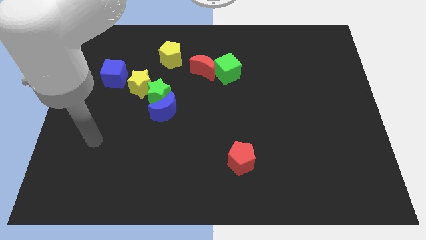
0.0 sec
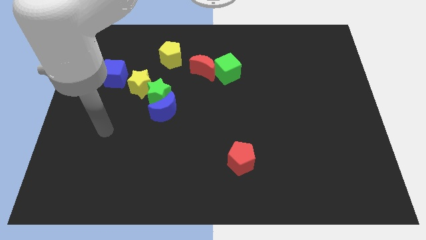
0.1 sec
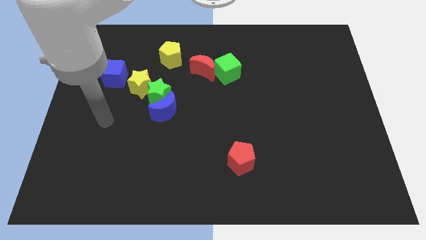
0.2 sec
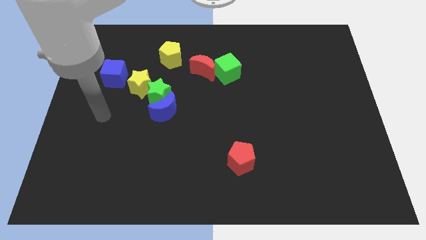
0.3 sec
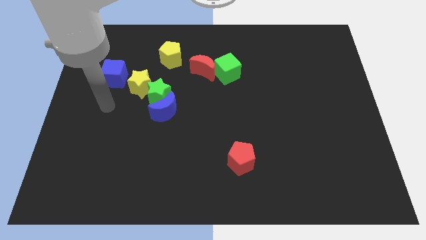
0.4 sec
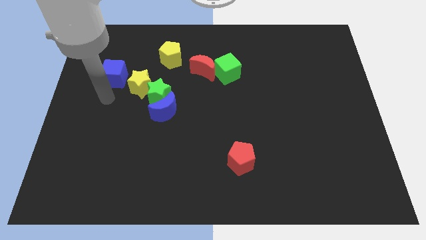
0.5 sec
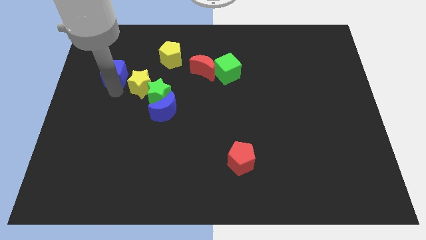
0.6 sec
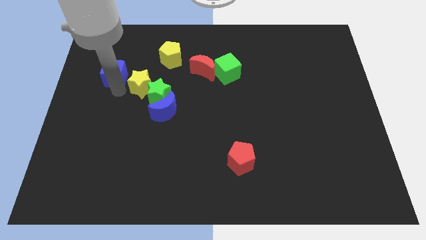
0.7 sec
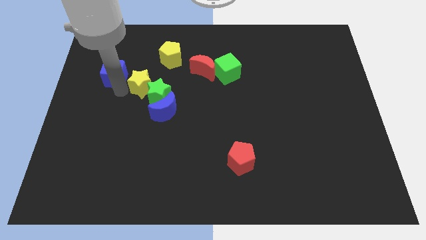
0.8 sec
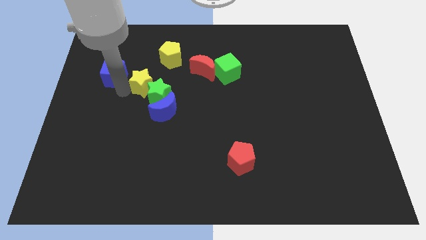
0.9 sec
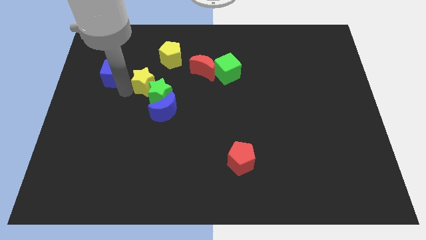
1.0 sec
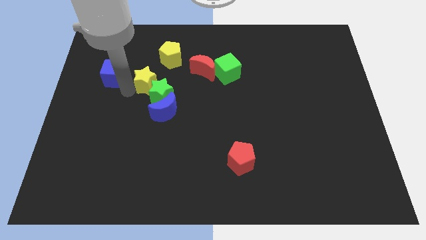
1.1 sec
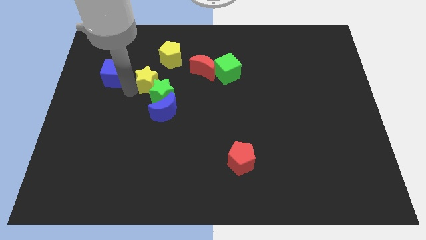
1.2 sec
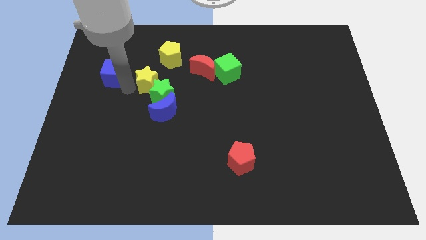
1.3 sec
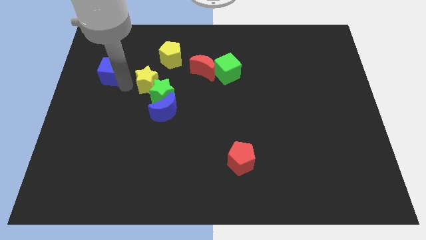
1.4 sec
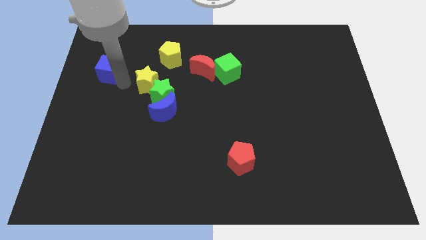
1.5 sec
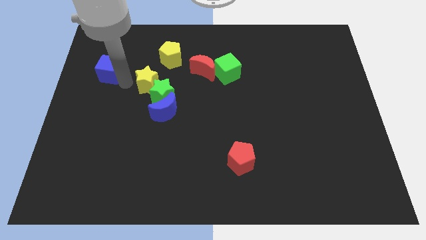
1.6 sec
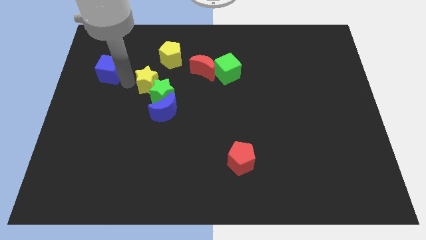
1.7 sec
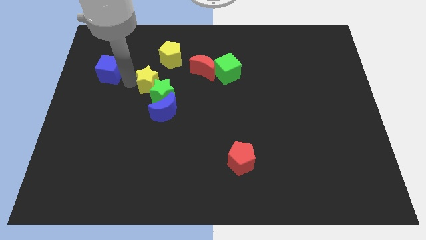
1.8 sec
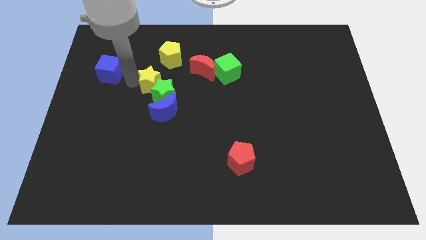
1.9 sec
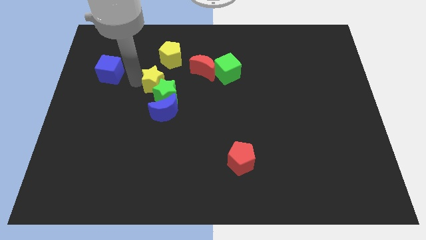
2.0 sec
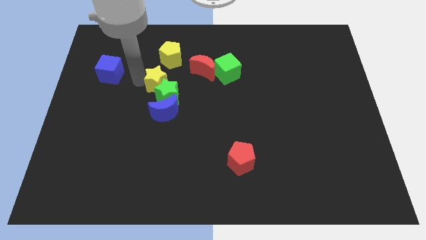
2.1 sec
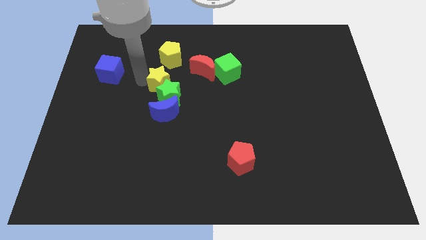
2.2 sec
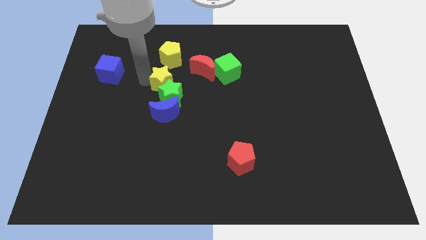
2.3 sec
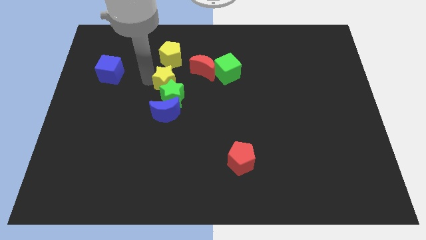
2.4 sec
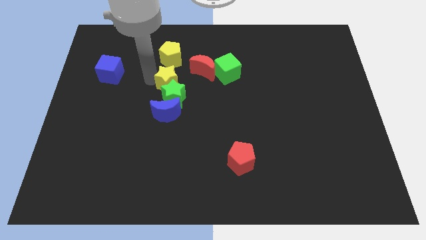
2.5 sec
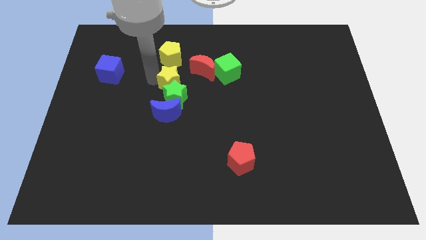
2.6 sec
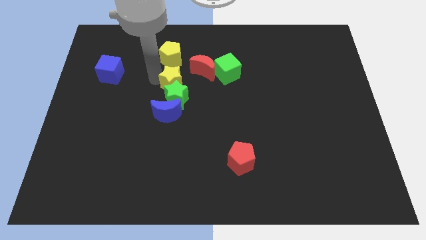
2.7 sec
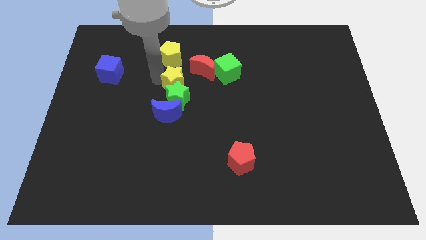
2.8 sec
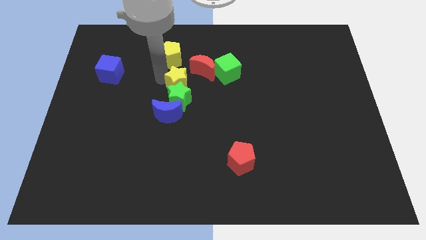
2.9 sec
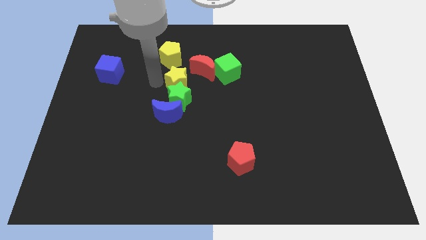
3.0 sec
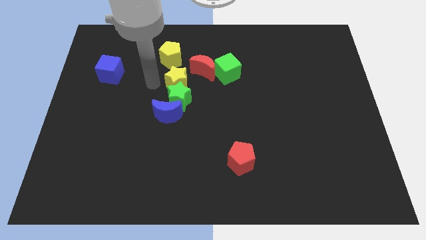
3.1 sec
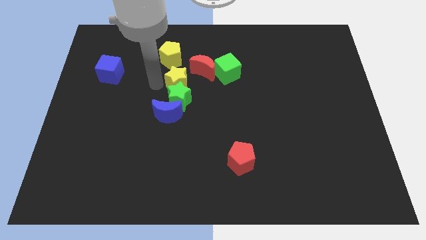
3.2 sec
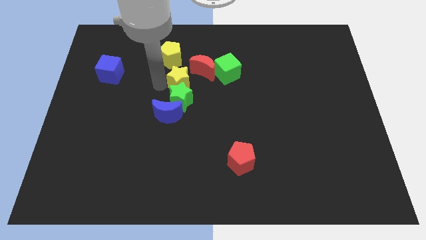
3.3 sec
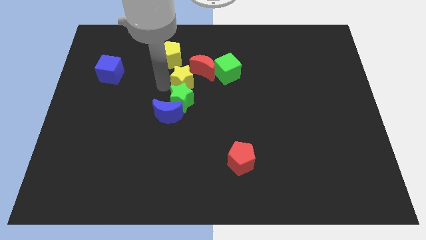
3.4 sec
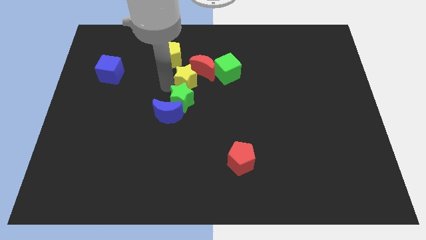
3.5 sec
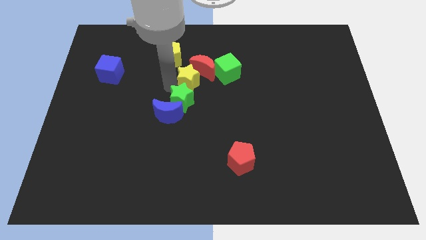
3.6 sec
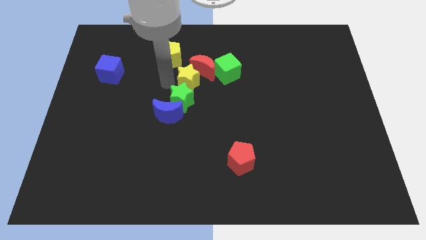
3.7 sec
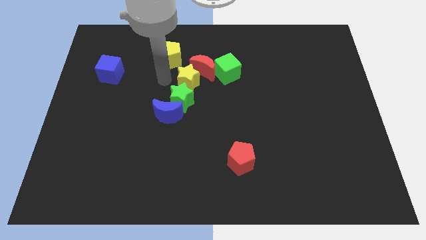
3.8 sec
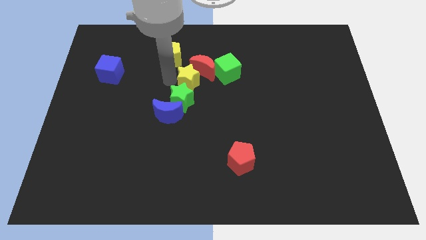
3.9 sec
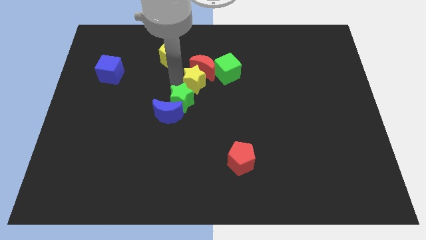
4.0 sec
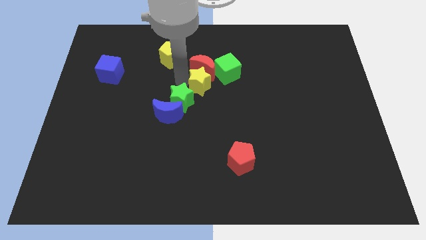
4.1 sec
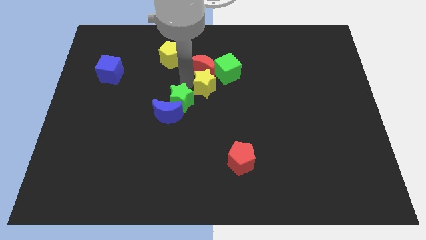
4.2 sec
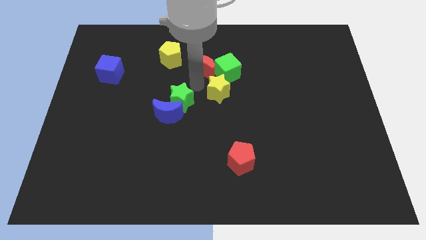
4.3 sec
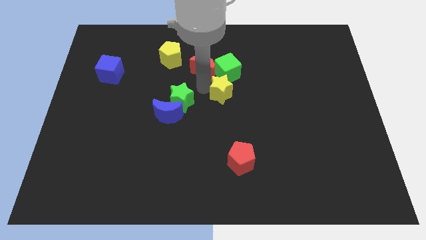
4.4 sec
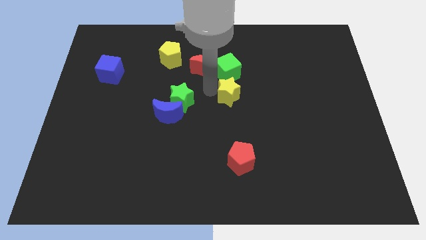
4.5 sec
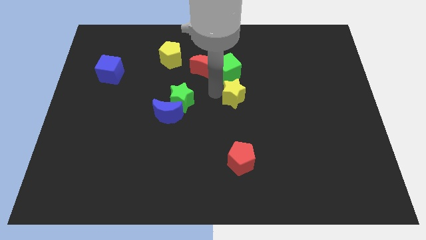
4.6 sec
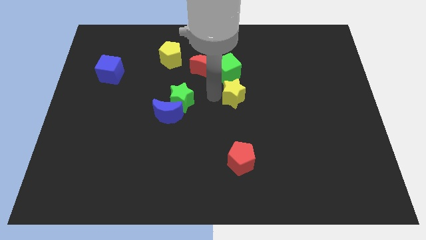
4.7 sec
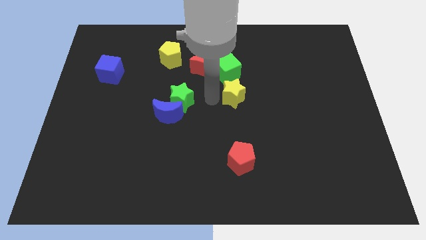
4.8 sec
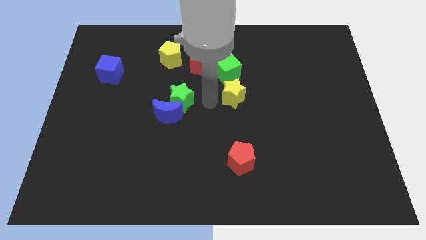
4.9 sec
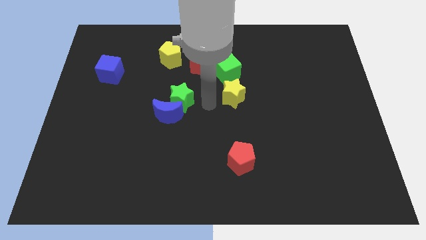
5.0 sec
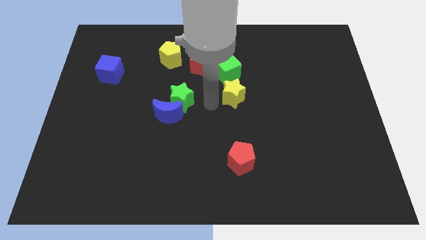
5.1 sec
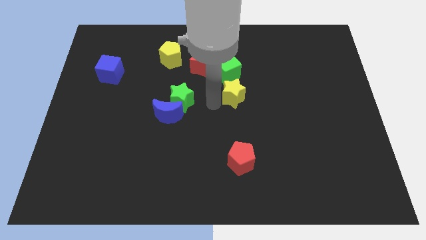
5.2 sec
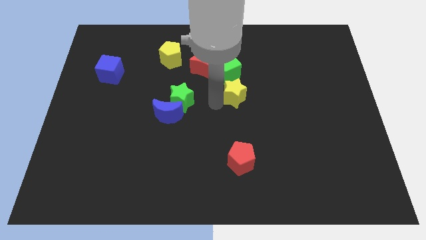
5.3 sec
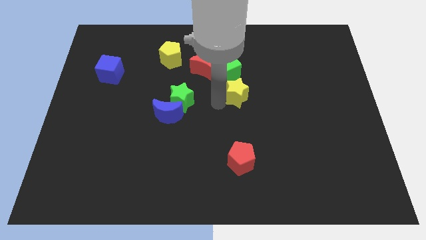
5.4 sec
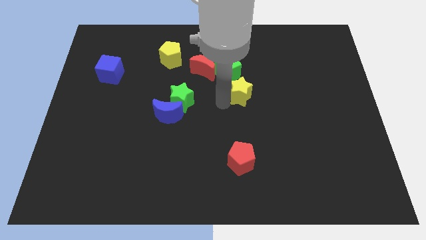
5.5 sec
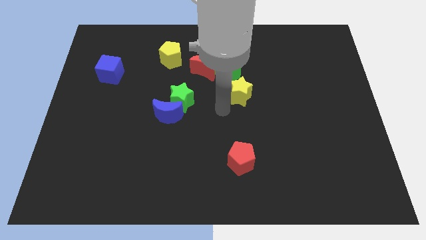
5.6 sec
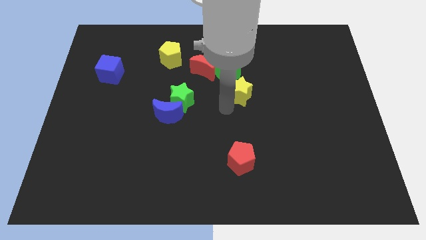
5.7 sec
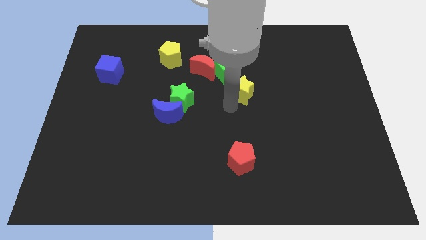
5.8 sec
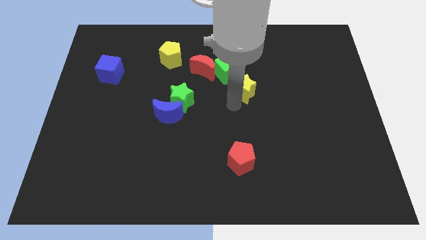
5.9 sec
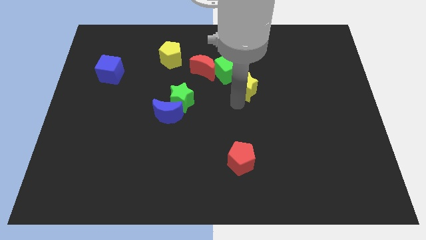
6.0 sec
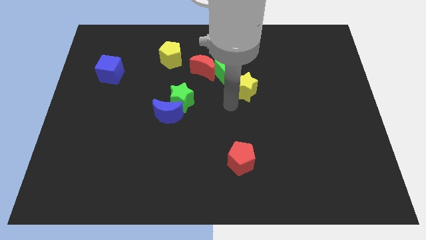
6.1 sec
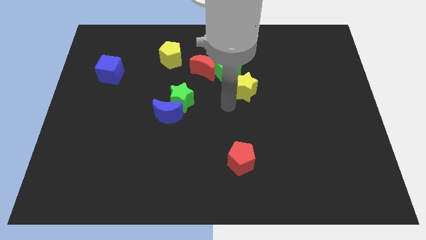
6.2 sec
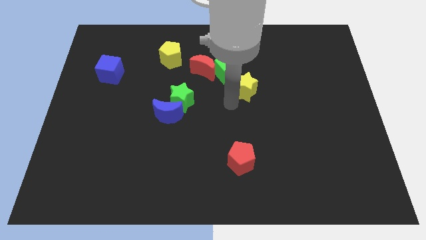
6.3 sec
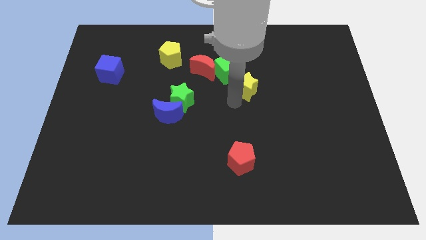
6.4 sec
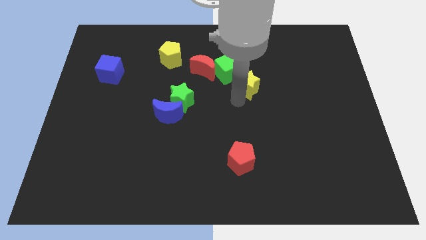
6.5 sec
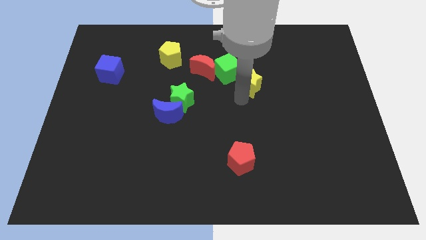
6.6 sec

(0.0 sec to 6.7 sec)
put the yellow star to the right side of the green cube
